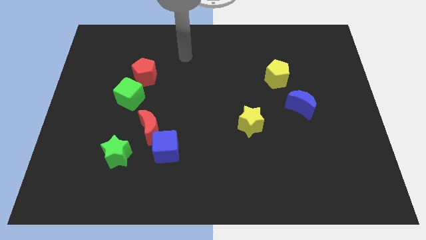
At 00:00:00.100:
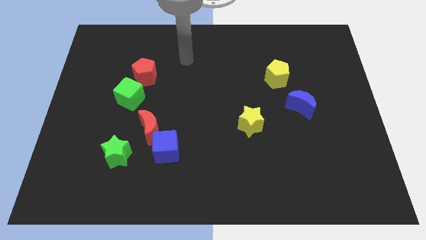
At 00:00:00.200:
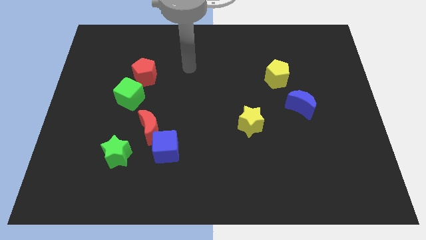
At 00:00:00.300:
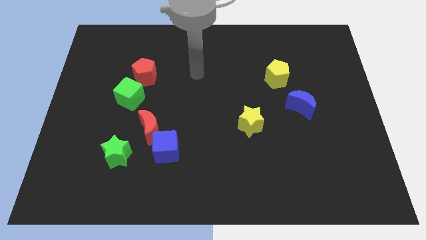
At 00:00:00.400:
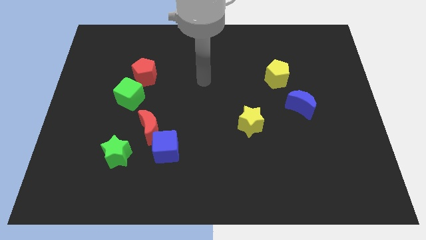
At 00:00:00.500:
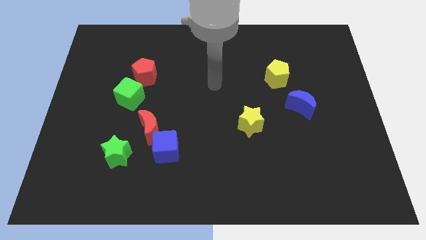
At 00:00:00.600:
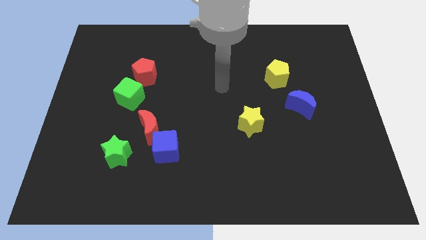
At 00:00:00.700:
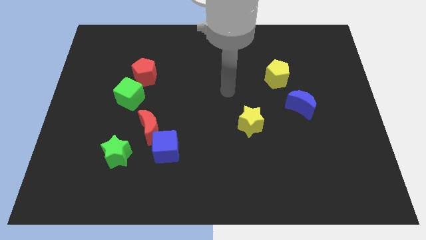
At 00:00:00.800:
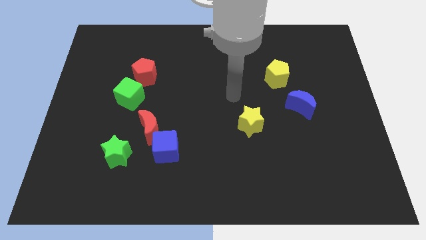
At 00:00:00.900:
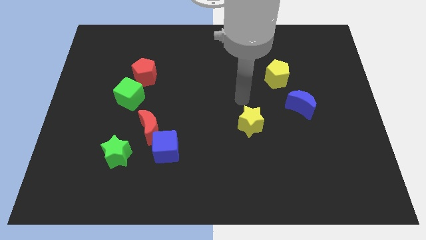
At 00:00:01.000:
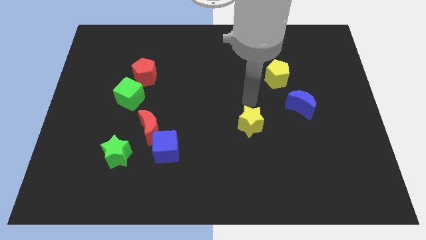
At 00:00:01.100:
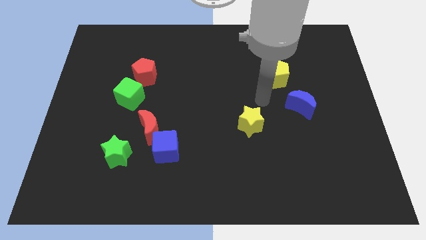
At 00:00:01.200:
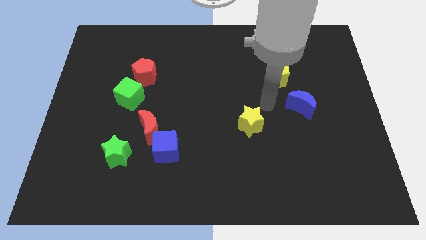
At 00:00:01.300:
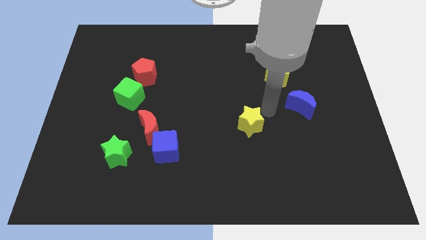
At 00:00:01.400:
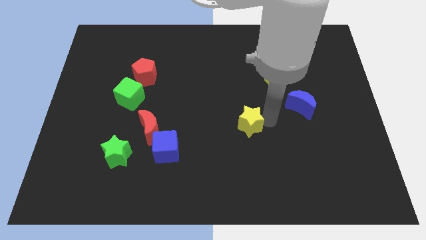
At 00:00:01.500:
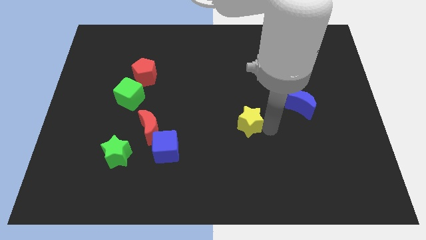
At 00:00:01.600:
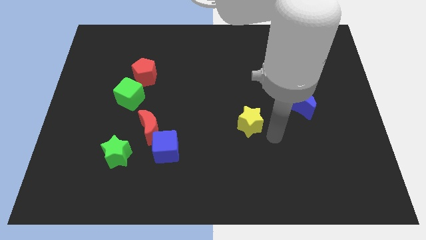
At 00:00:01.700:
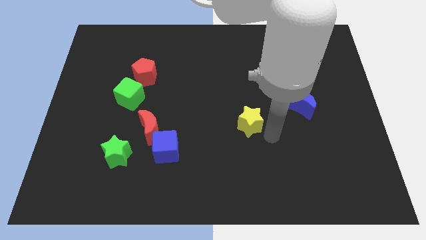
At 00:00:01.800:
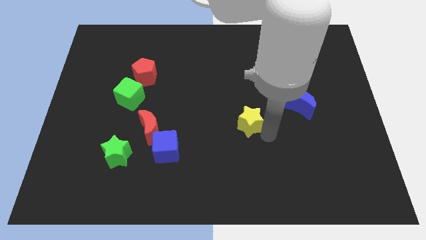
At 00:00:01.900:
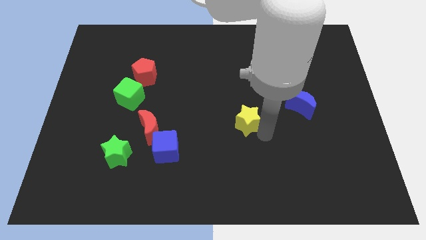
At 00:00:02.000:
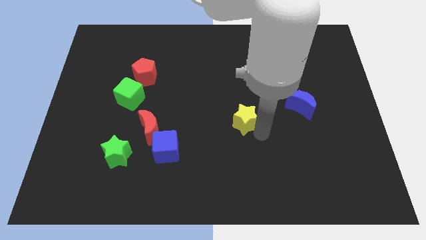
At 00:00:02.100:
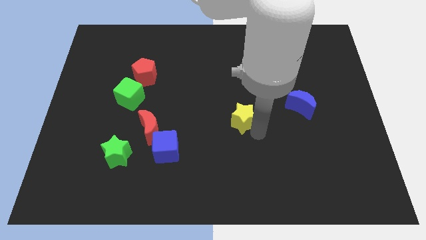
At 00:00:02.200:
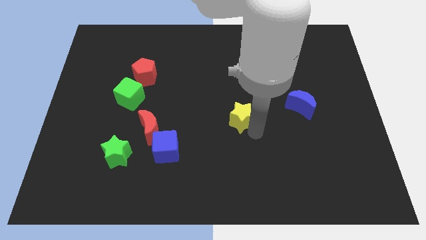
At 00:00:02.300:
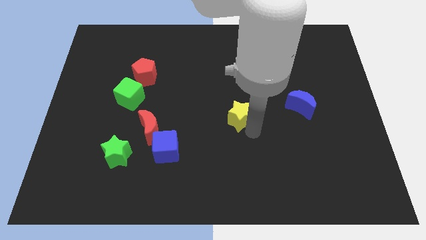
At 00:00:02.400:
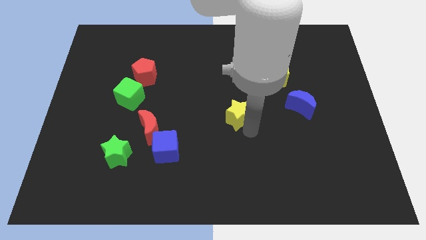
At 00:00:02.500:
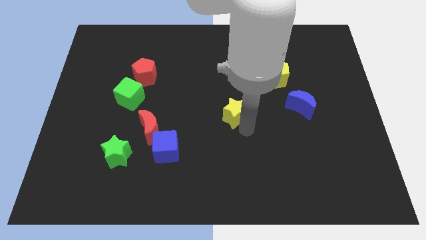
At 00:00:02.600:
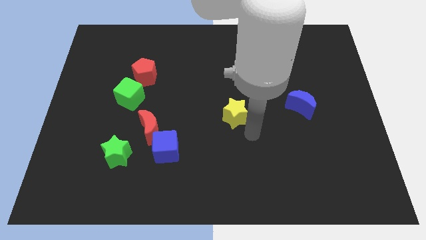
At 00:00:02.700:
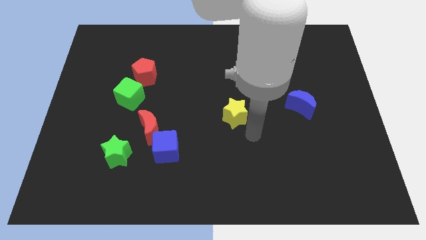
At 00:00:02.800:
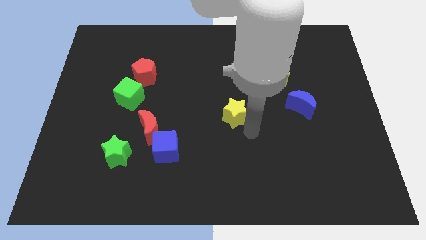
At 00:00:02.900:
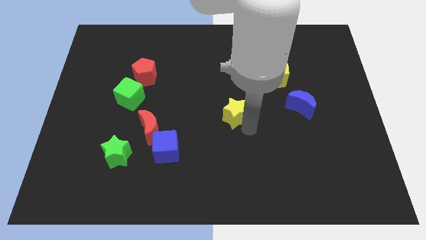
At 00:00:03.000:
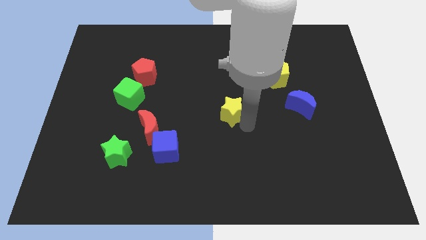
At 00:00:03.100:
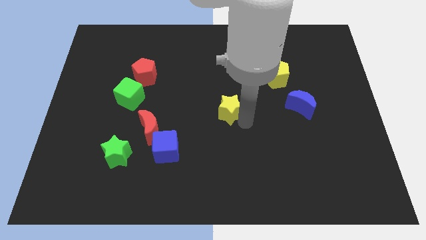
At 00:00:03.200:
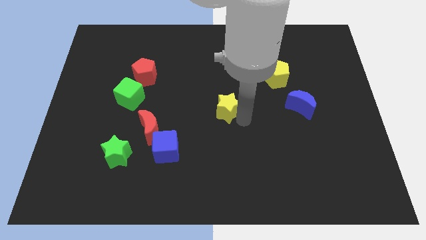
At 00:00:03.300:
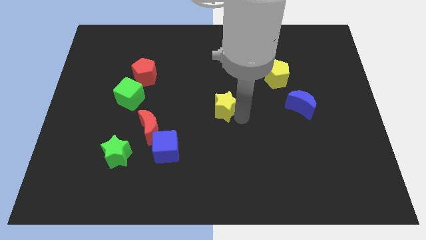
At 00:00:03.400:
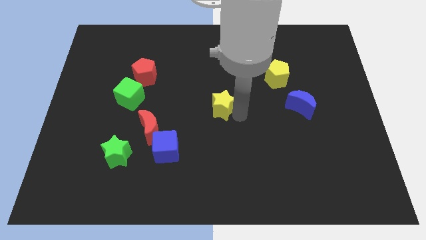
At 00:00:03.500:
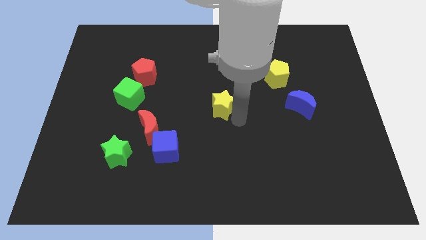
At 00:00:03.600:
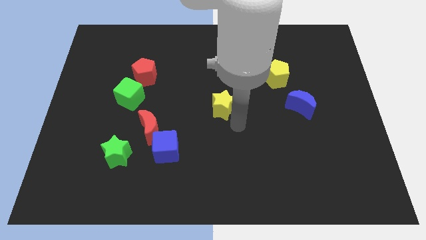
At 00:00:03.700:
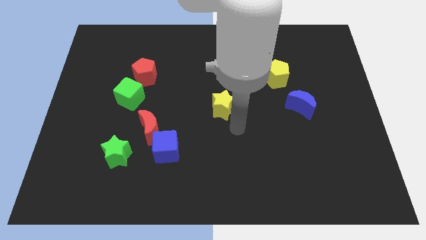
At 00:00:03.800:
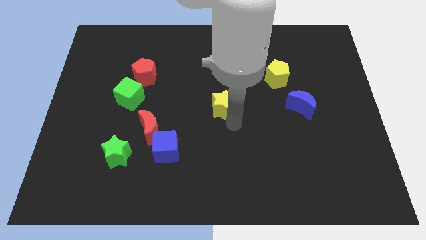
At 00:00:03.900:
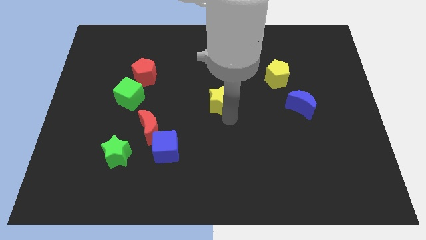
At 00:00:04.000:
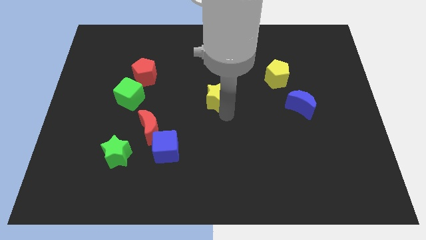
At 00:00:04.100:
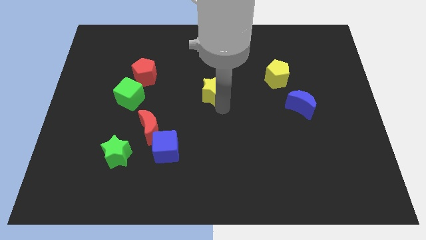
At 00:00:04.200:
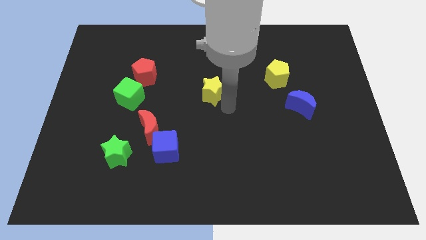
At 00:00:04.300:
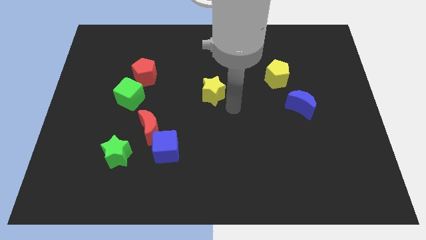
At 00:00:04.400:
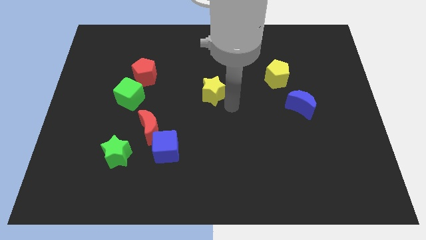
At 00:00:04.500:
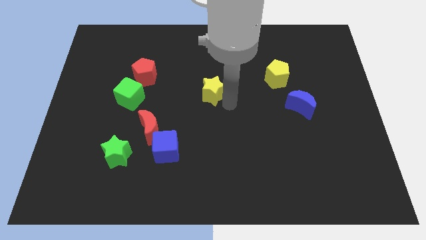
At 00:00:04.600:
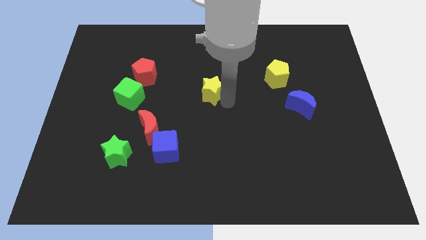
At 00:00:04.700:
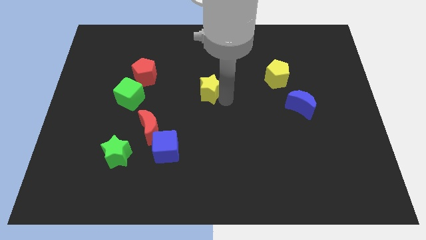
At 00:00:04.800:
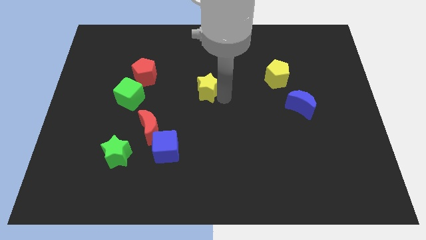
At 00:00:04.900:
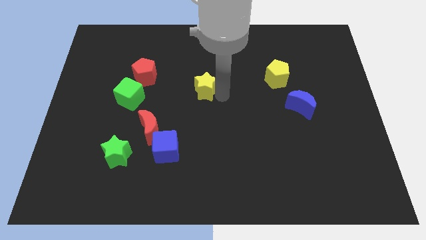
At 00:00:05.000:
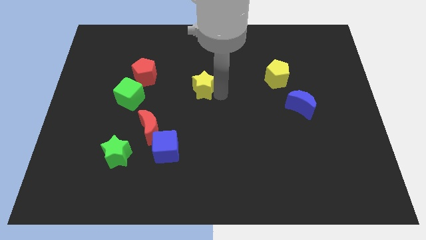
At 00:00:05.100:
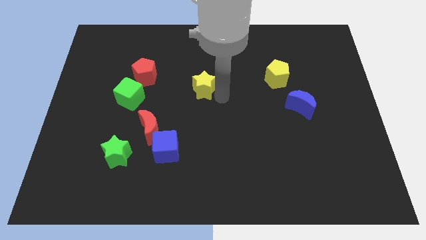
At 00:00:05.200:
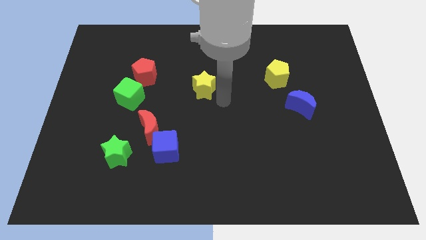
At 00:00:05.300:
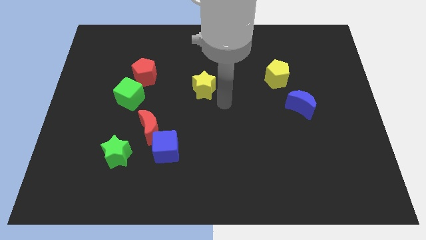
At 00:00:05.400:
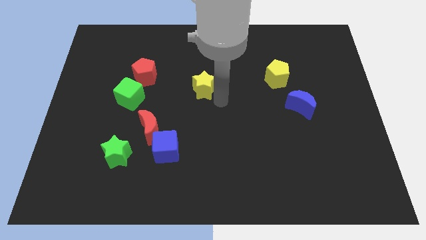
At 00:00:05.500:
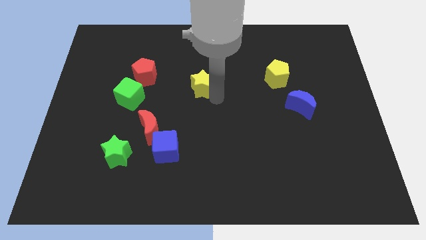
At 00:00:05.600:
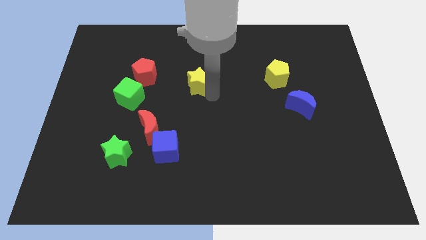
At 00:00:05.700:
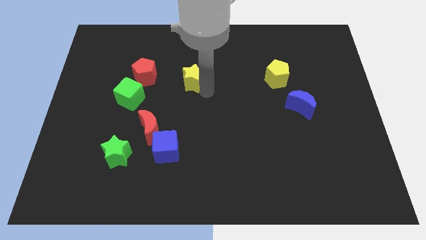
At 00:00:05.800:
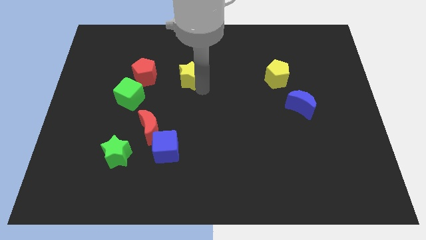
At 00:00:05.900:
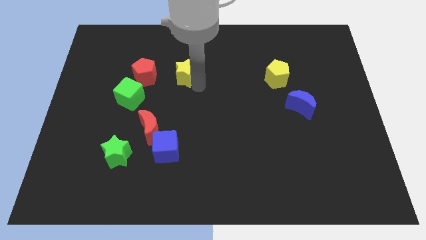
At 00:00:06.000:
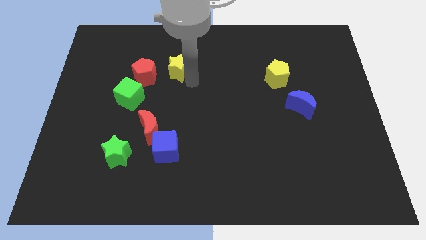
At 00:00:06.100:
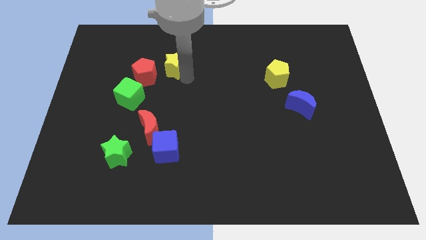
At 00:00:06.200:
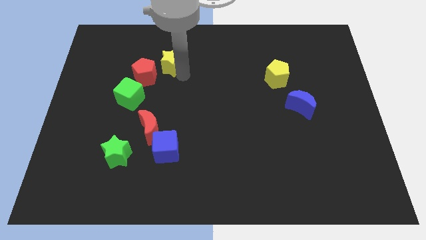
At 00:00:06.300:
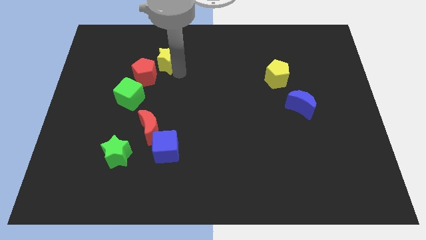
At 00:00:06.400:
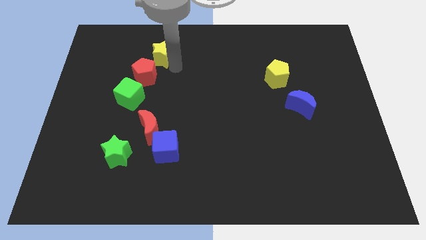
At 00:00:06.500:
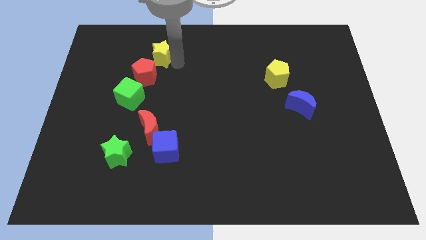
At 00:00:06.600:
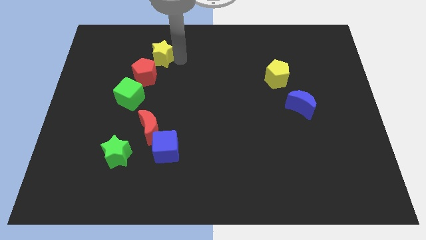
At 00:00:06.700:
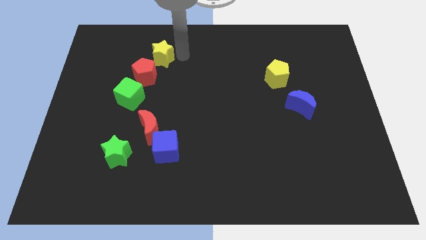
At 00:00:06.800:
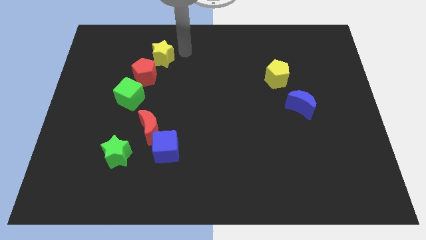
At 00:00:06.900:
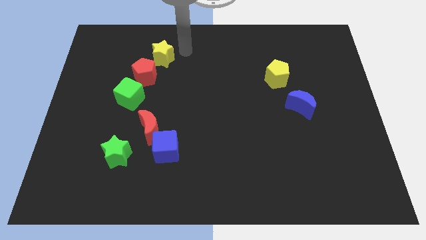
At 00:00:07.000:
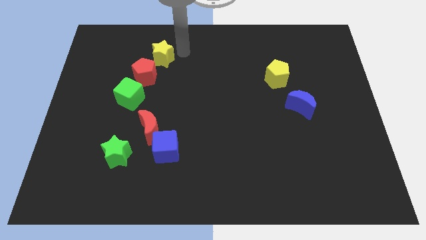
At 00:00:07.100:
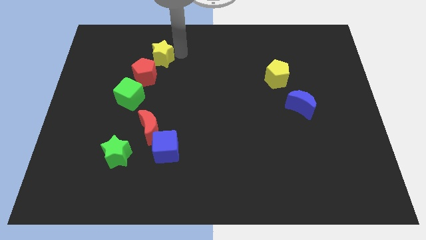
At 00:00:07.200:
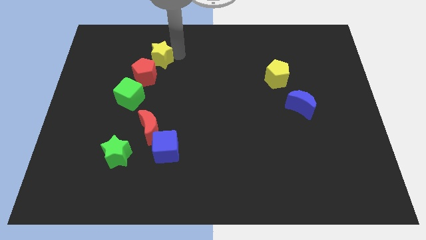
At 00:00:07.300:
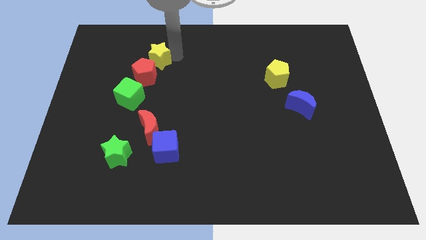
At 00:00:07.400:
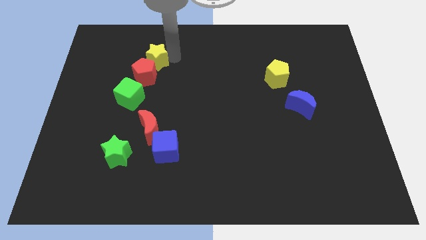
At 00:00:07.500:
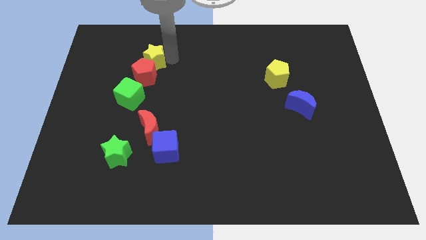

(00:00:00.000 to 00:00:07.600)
push the yellow star to the top of the green cube
